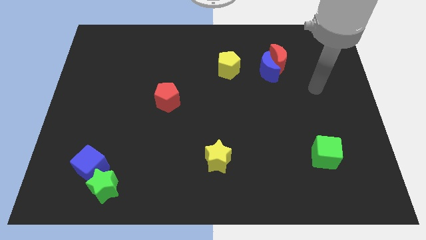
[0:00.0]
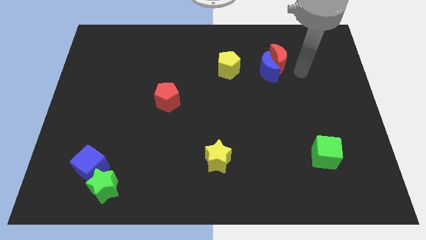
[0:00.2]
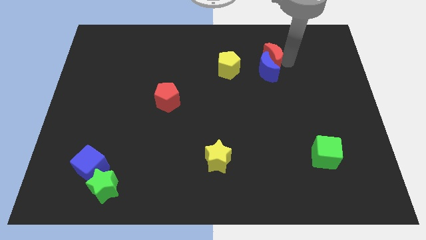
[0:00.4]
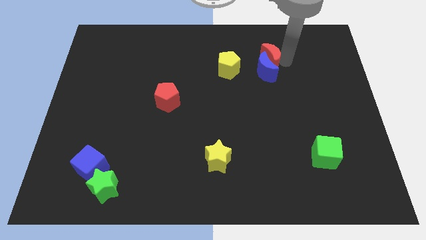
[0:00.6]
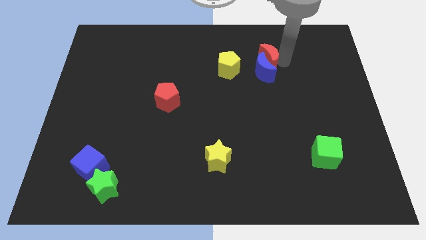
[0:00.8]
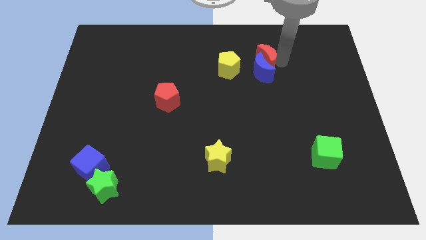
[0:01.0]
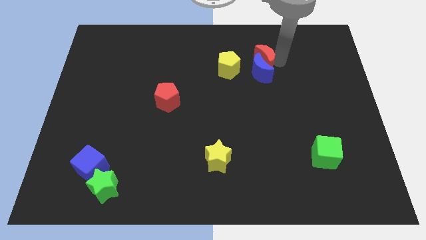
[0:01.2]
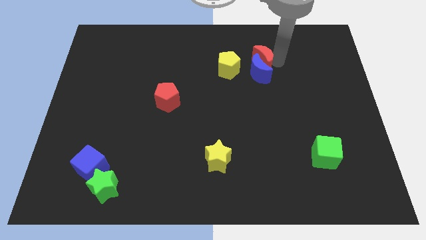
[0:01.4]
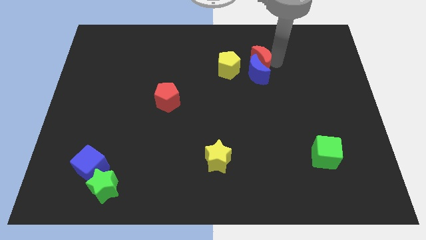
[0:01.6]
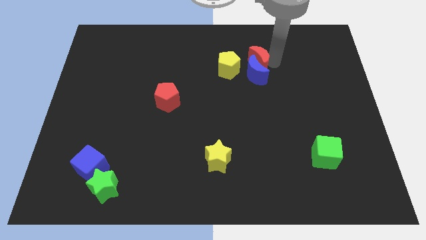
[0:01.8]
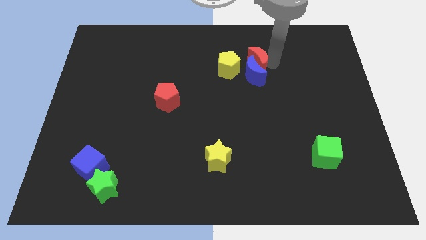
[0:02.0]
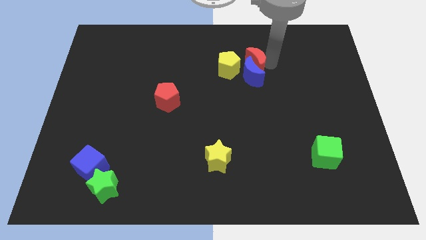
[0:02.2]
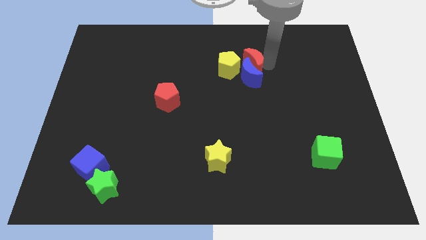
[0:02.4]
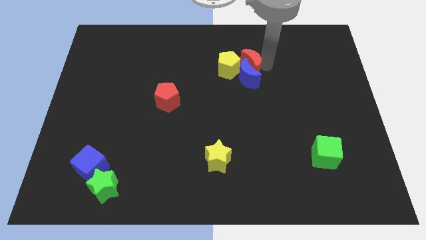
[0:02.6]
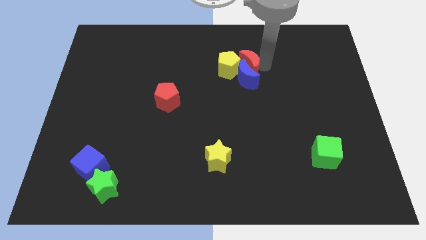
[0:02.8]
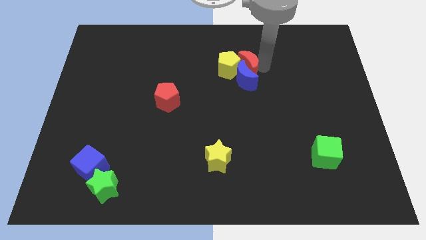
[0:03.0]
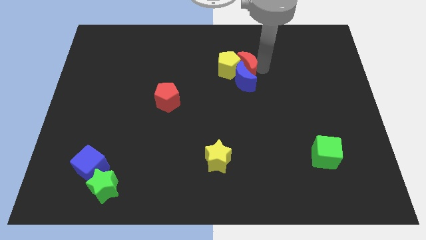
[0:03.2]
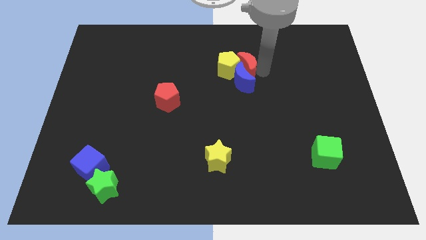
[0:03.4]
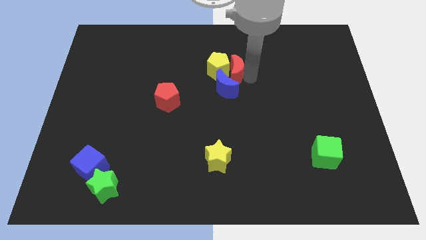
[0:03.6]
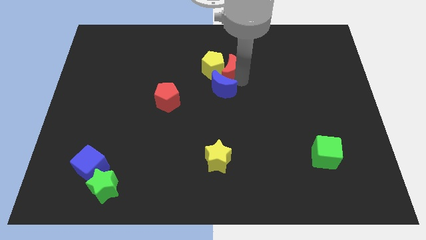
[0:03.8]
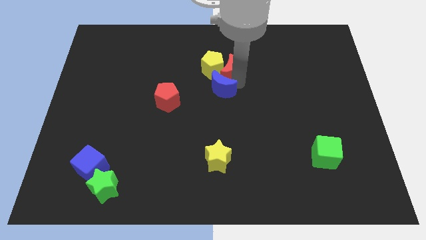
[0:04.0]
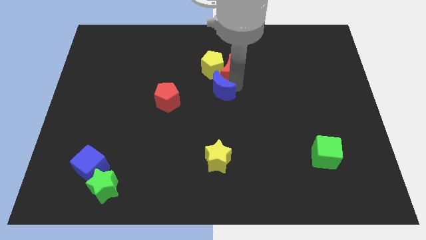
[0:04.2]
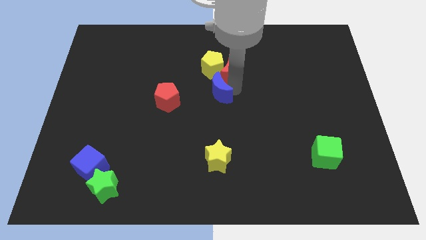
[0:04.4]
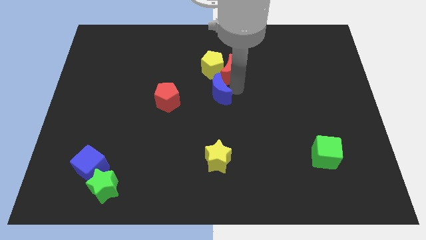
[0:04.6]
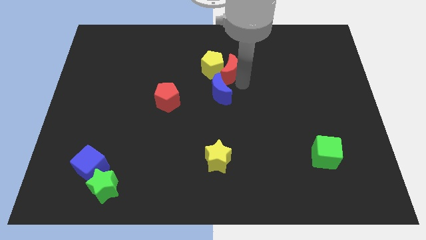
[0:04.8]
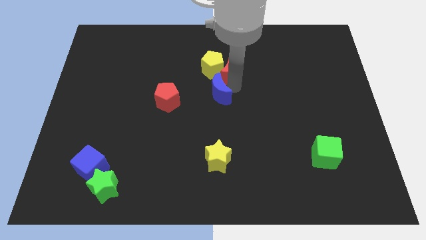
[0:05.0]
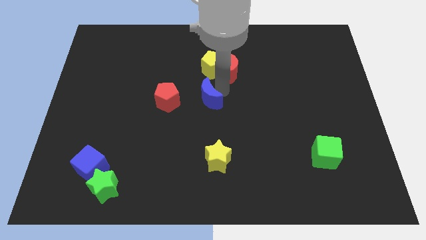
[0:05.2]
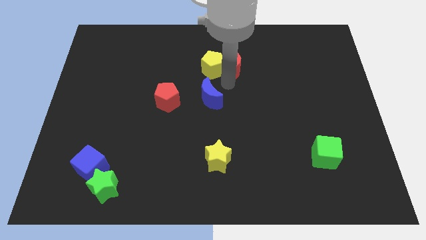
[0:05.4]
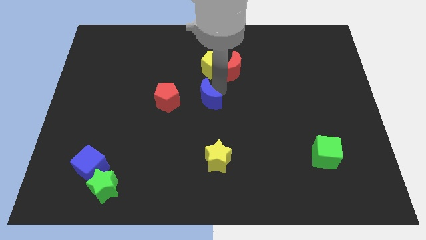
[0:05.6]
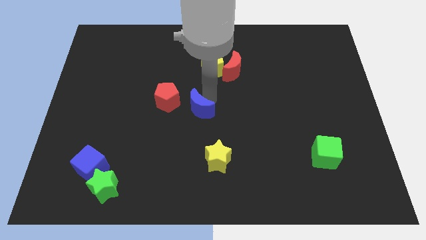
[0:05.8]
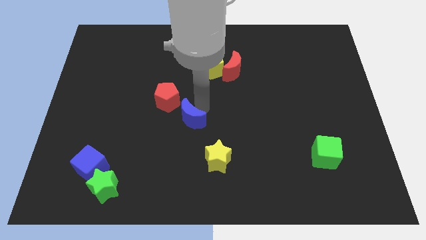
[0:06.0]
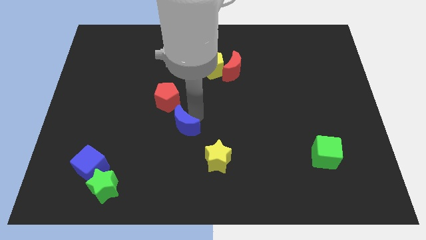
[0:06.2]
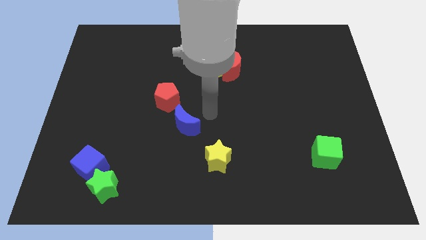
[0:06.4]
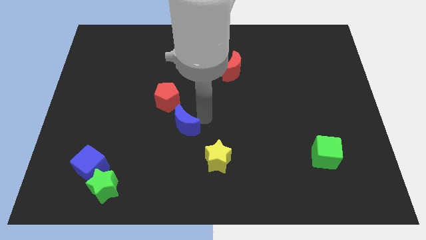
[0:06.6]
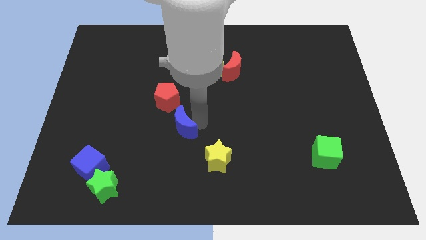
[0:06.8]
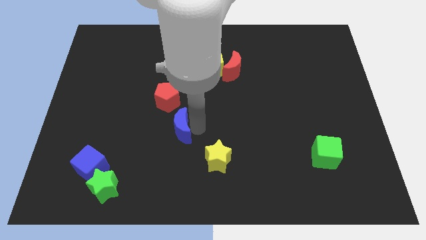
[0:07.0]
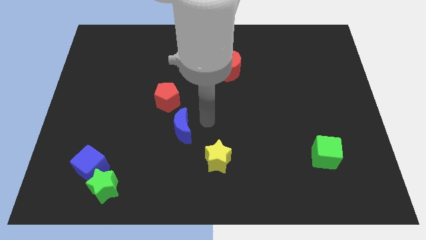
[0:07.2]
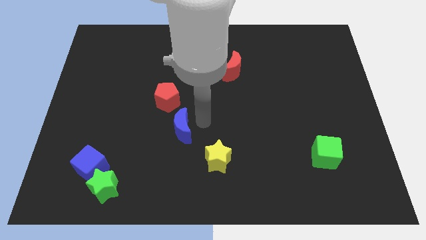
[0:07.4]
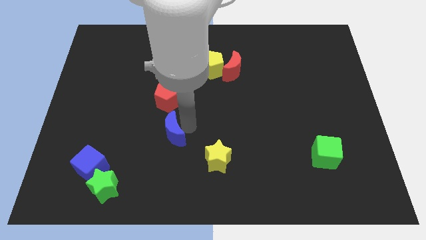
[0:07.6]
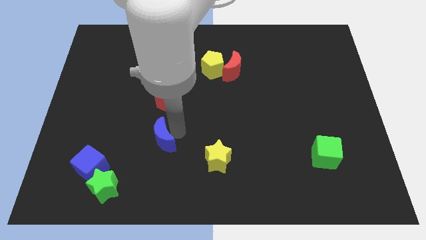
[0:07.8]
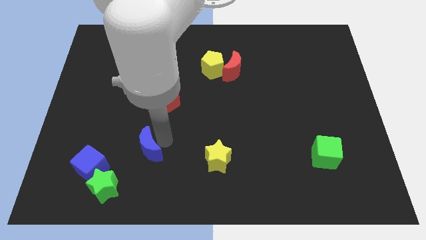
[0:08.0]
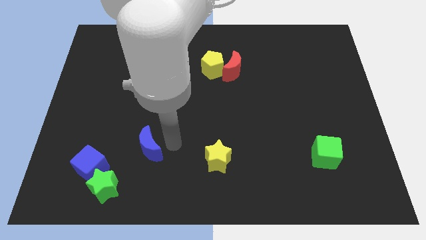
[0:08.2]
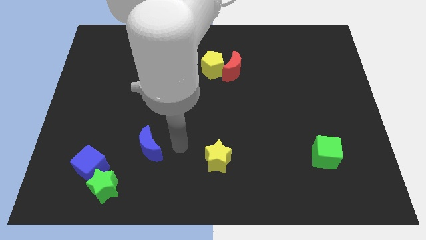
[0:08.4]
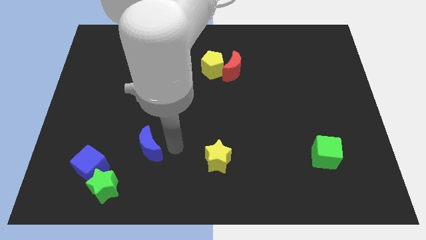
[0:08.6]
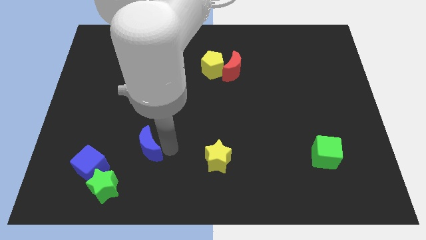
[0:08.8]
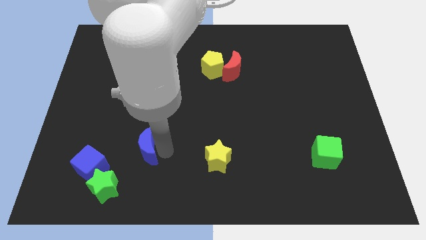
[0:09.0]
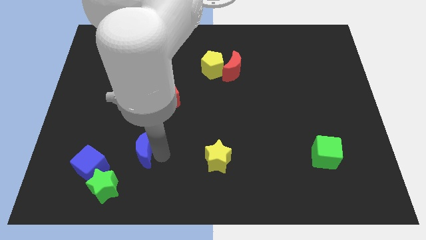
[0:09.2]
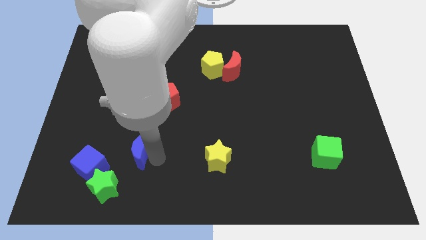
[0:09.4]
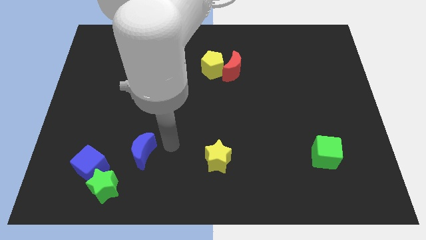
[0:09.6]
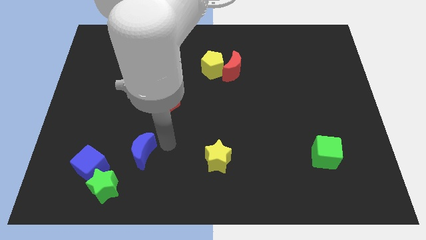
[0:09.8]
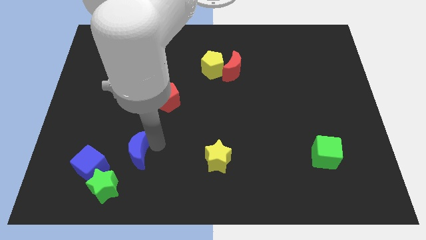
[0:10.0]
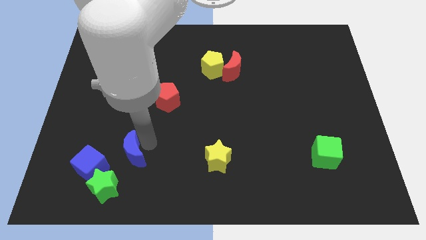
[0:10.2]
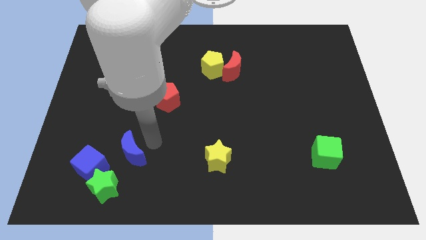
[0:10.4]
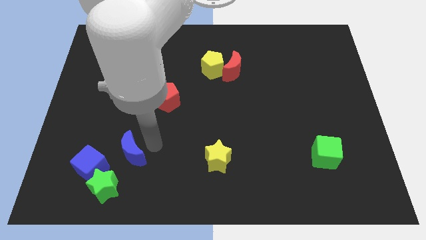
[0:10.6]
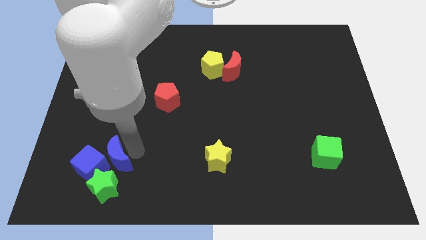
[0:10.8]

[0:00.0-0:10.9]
push the blue moon close to the blue cube

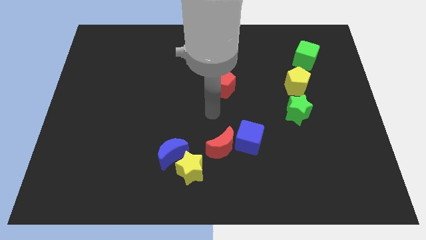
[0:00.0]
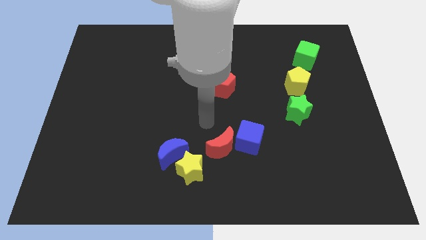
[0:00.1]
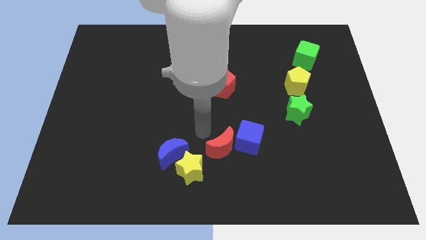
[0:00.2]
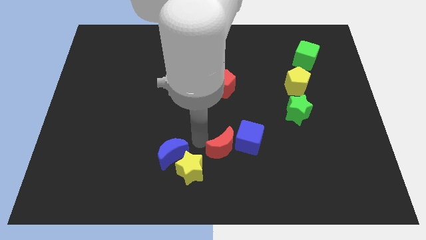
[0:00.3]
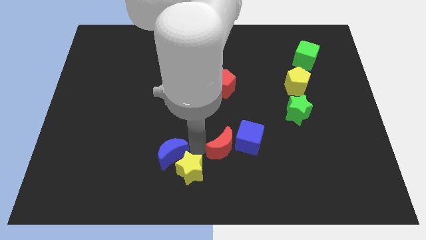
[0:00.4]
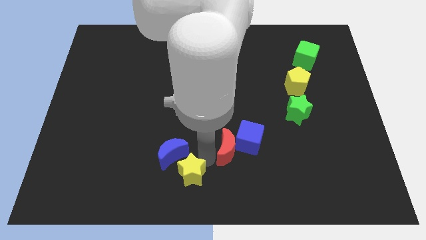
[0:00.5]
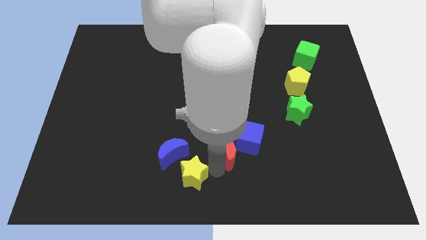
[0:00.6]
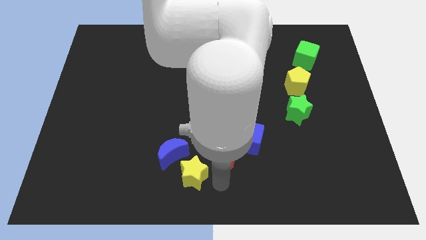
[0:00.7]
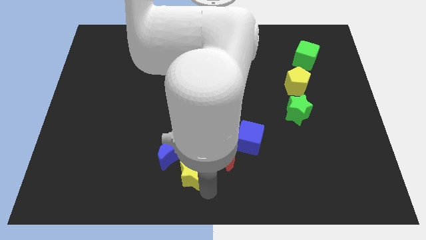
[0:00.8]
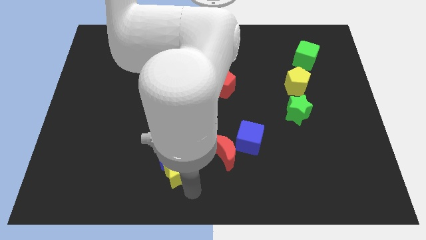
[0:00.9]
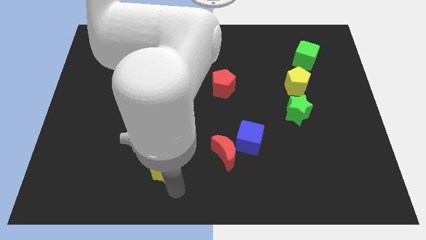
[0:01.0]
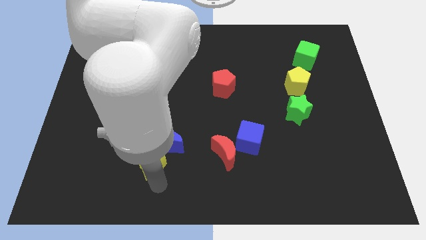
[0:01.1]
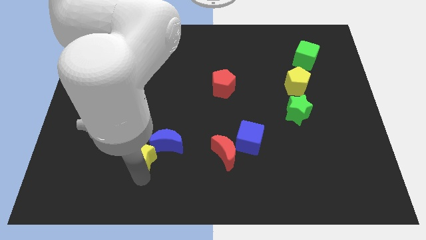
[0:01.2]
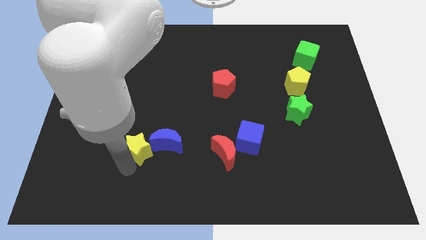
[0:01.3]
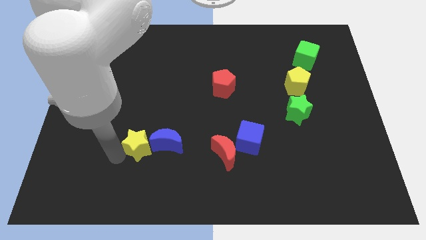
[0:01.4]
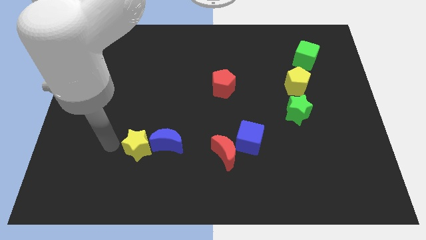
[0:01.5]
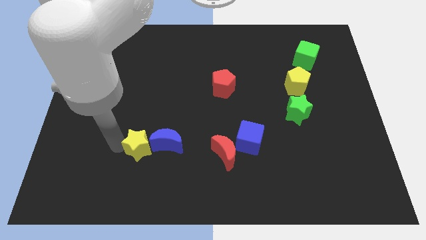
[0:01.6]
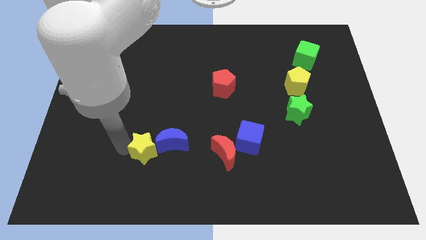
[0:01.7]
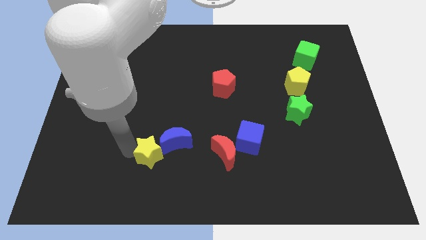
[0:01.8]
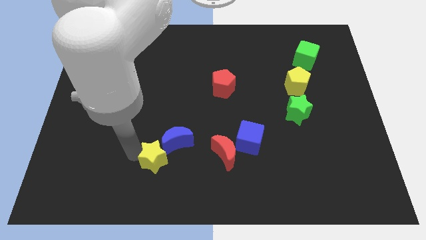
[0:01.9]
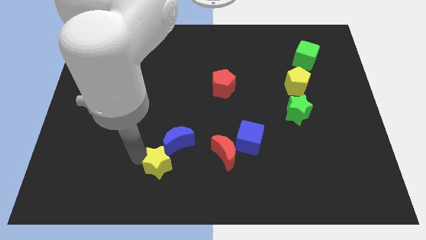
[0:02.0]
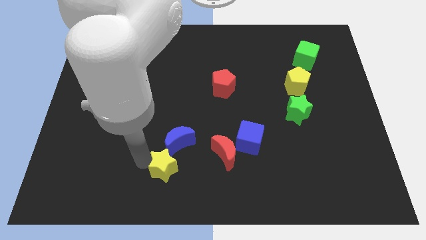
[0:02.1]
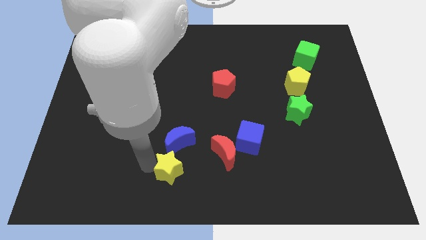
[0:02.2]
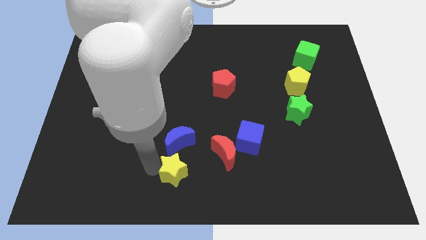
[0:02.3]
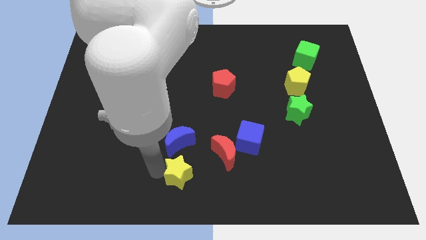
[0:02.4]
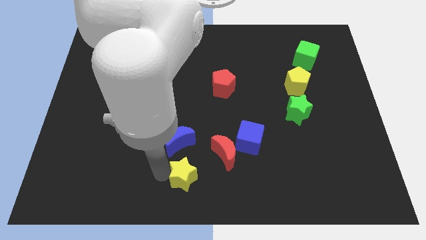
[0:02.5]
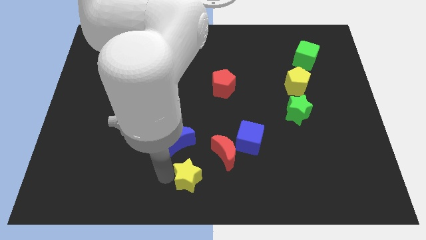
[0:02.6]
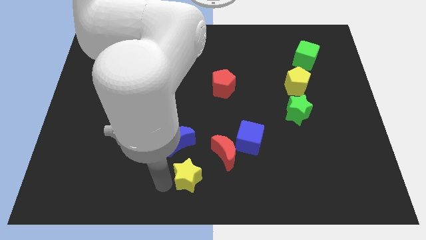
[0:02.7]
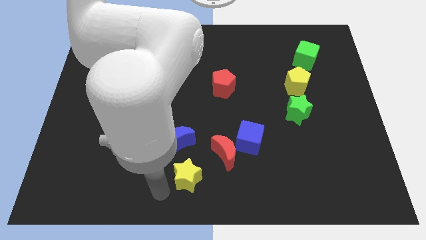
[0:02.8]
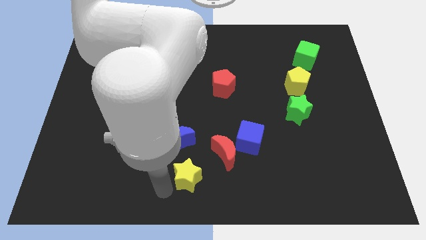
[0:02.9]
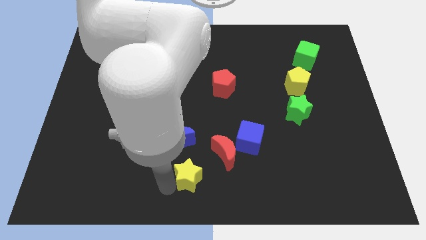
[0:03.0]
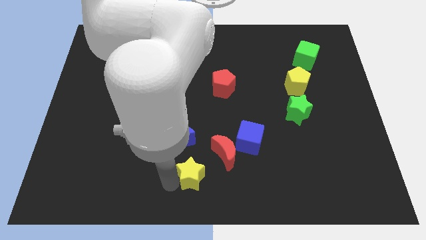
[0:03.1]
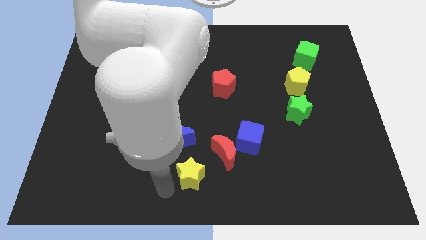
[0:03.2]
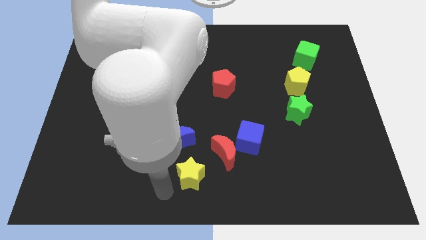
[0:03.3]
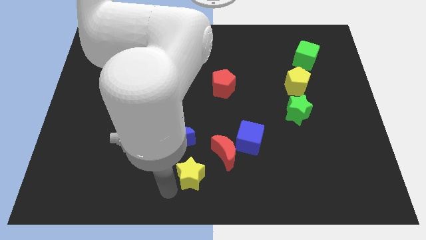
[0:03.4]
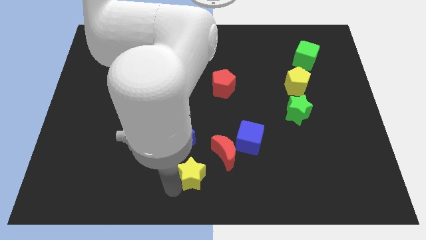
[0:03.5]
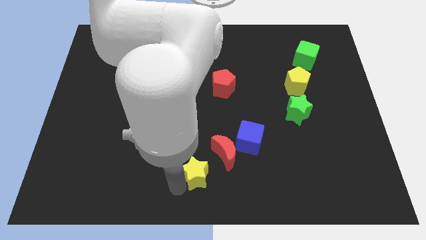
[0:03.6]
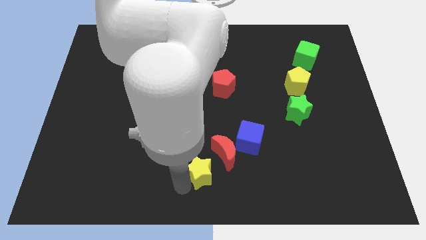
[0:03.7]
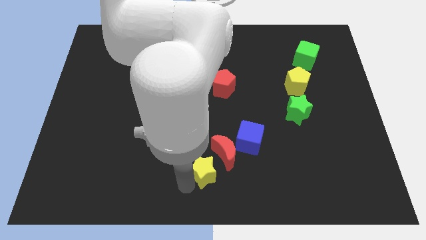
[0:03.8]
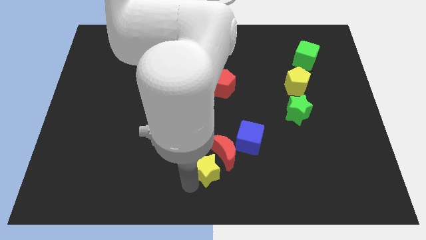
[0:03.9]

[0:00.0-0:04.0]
slide the yellow star close to the red moon
